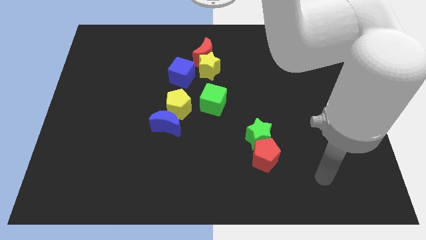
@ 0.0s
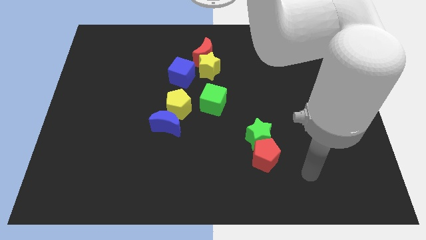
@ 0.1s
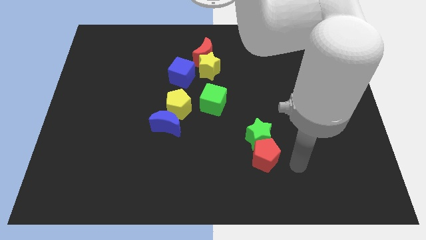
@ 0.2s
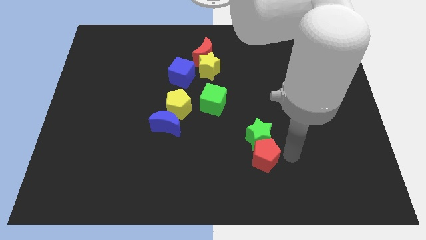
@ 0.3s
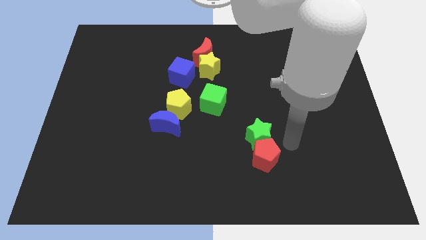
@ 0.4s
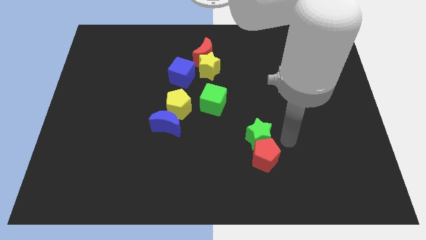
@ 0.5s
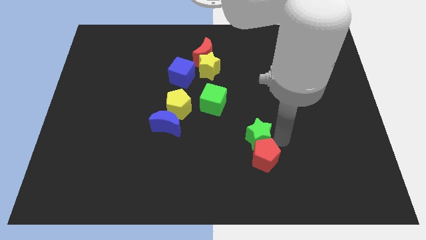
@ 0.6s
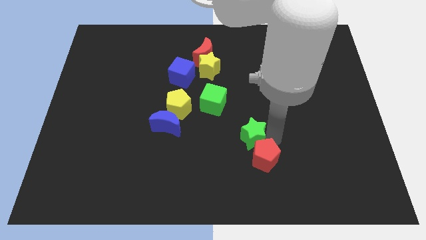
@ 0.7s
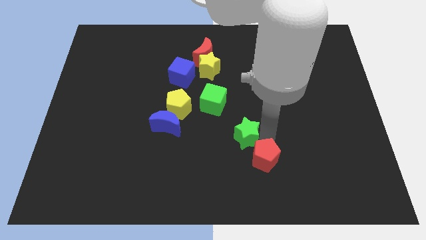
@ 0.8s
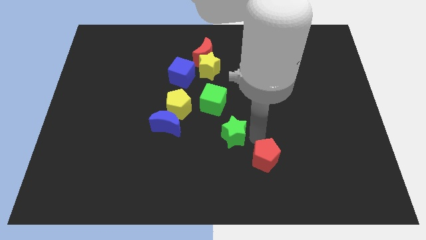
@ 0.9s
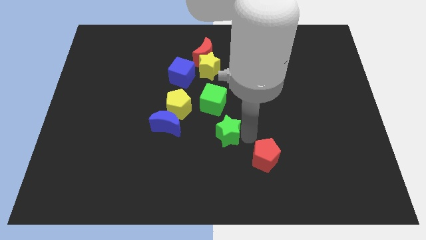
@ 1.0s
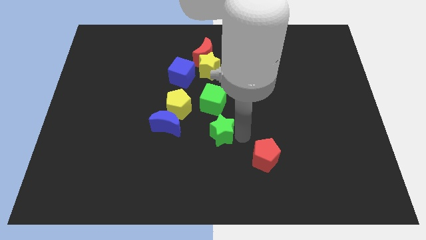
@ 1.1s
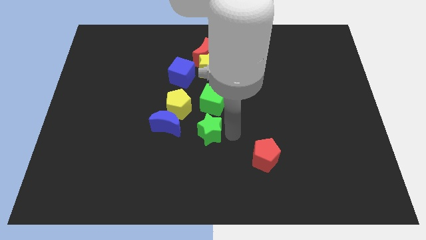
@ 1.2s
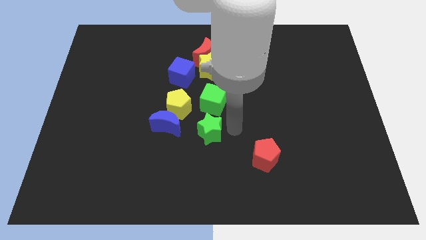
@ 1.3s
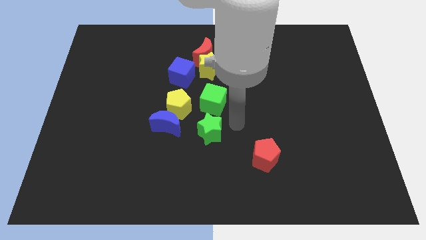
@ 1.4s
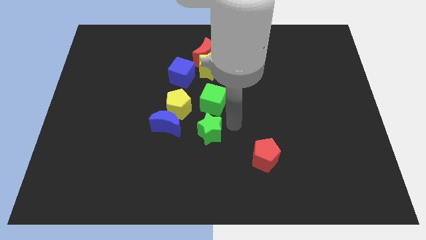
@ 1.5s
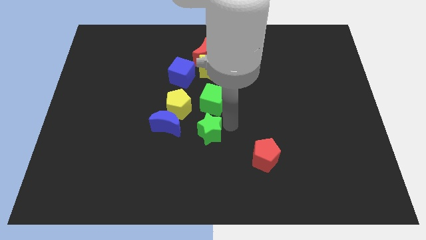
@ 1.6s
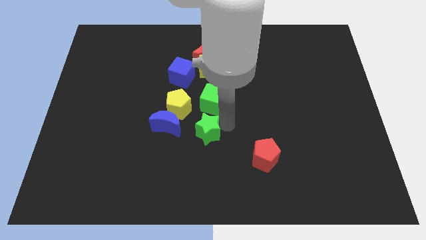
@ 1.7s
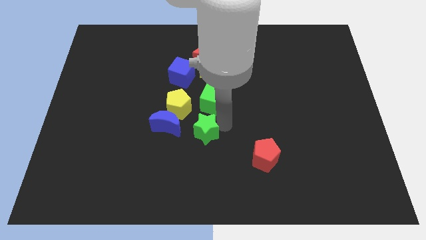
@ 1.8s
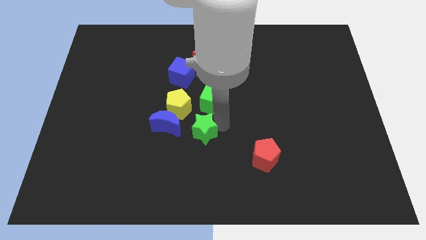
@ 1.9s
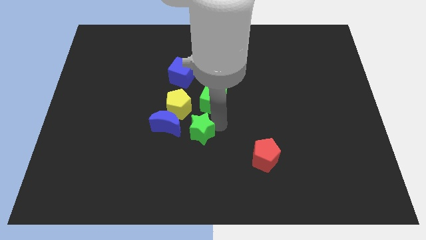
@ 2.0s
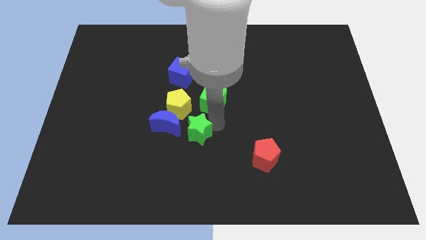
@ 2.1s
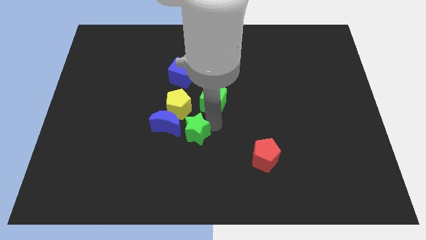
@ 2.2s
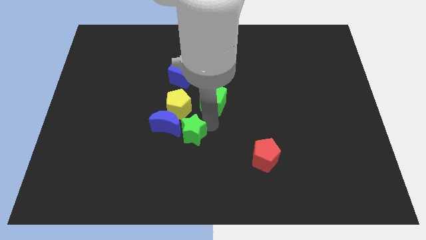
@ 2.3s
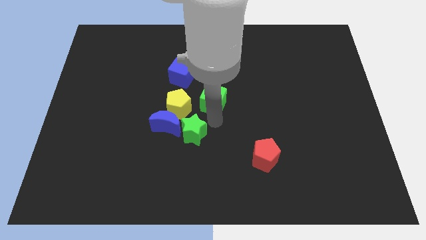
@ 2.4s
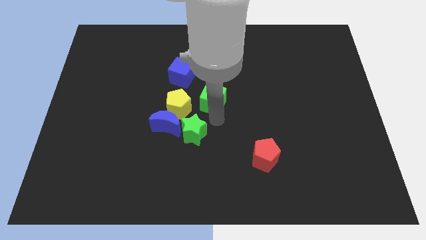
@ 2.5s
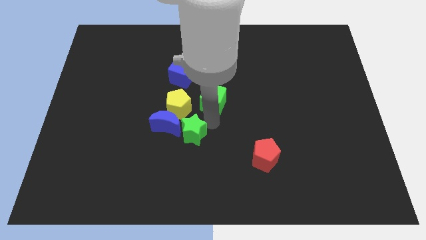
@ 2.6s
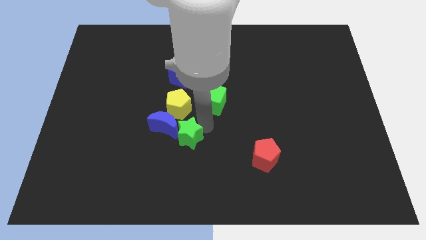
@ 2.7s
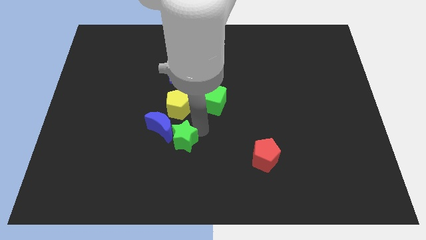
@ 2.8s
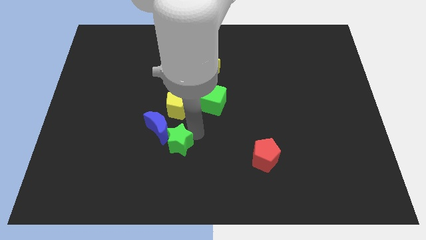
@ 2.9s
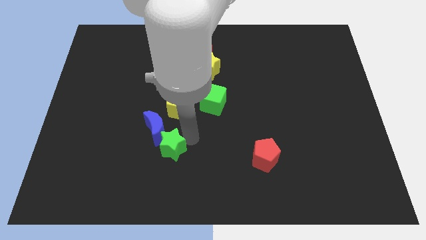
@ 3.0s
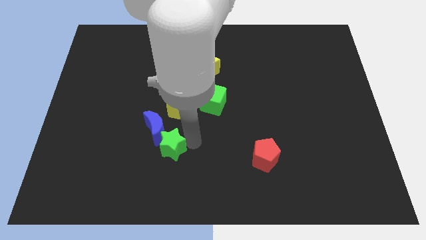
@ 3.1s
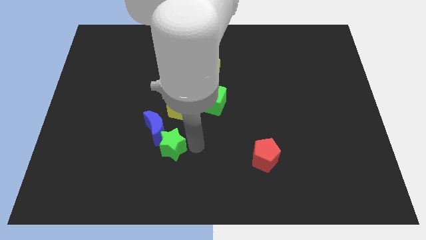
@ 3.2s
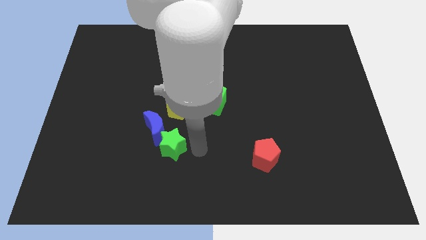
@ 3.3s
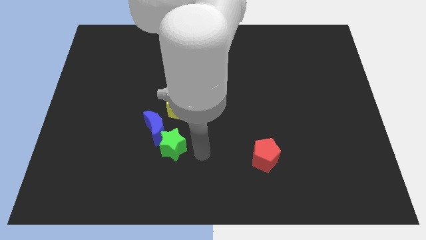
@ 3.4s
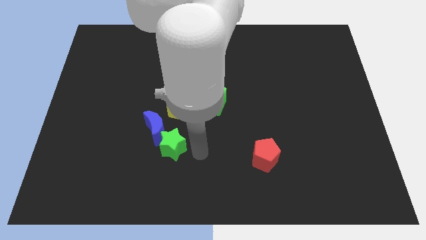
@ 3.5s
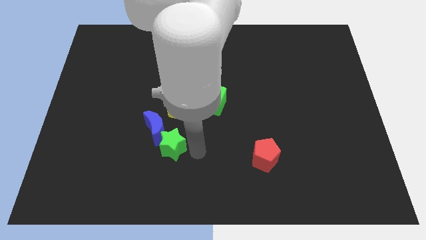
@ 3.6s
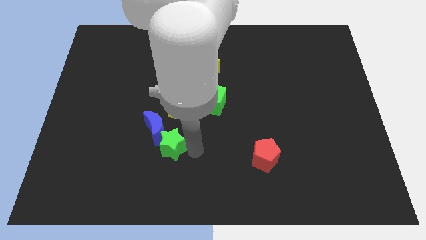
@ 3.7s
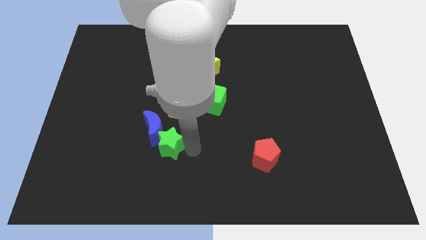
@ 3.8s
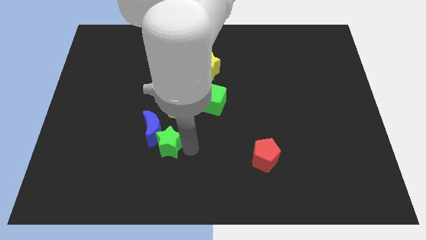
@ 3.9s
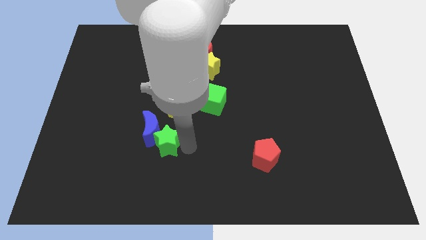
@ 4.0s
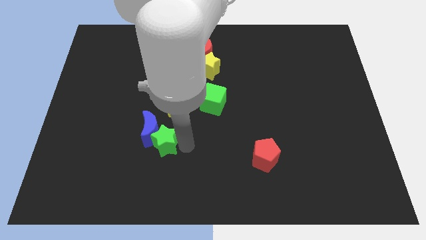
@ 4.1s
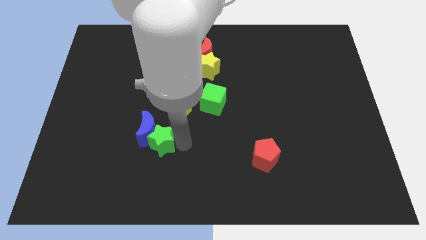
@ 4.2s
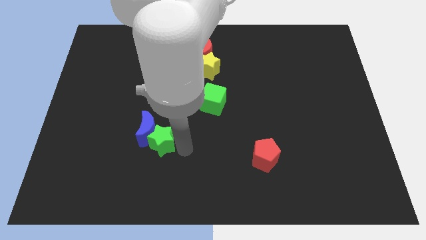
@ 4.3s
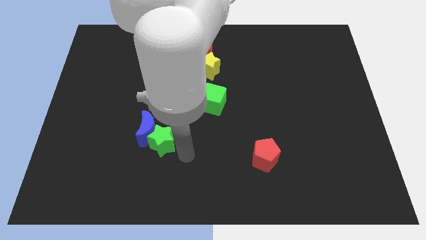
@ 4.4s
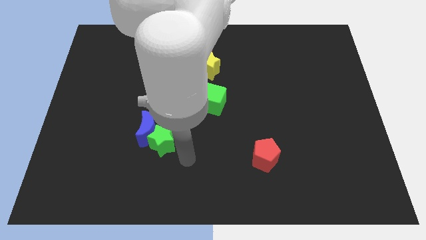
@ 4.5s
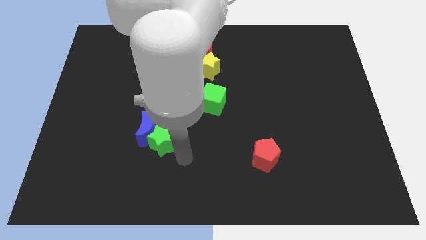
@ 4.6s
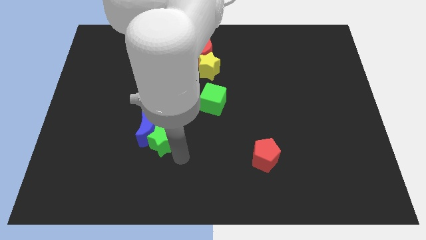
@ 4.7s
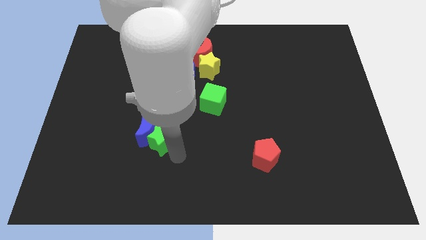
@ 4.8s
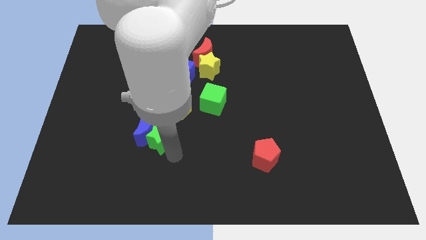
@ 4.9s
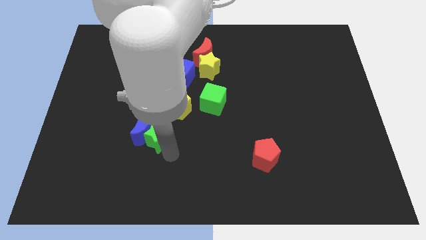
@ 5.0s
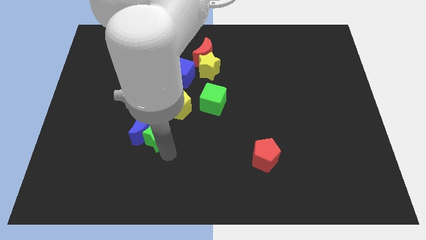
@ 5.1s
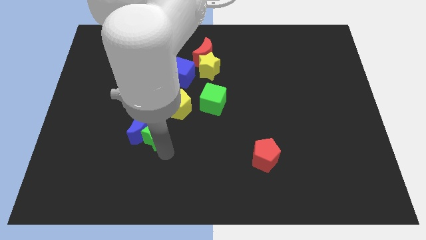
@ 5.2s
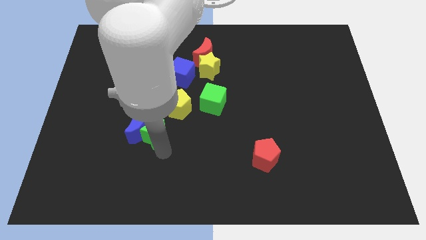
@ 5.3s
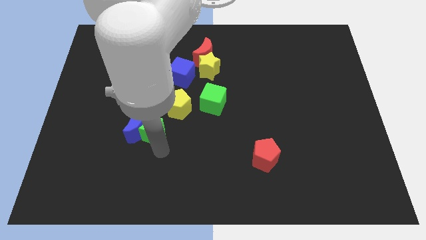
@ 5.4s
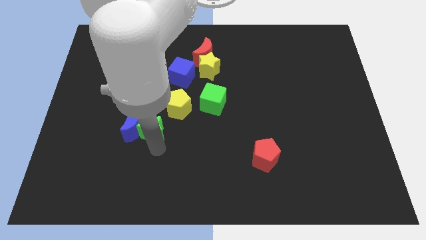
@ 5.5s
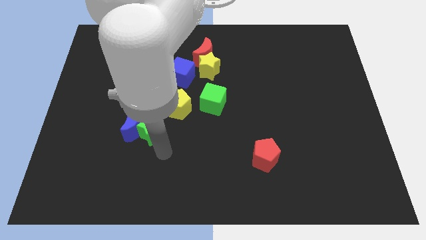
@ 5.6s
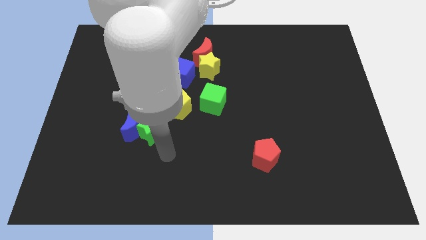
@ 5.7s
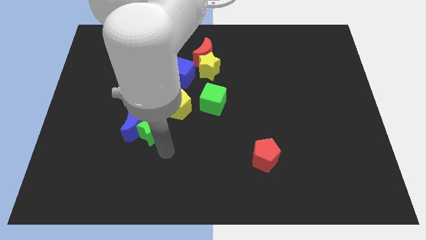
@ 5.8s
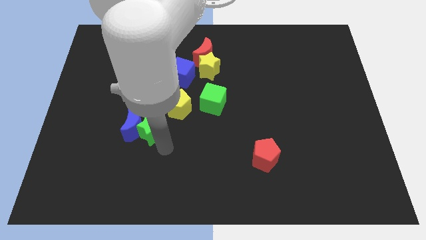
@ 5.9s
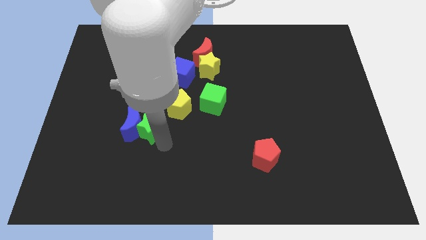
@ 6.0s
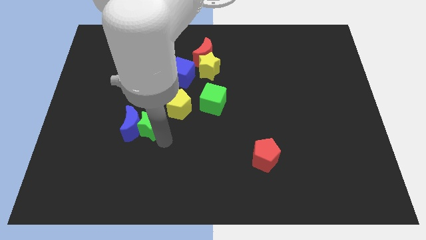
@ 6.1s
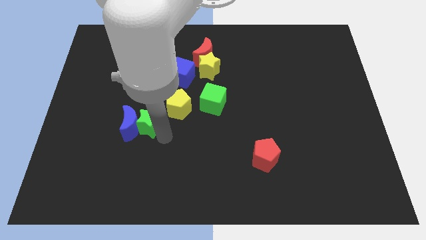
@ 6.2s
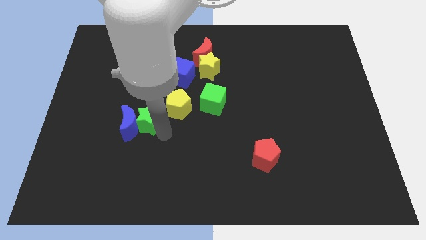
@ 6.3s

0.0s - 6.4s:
put the green star left of the yellow pentagon

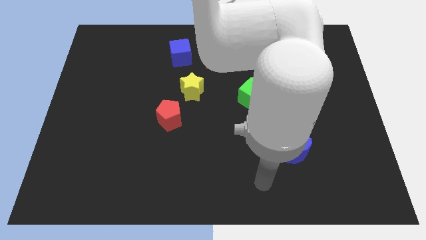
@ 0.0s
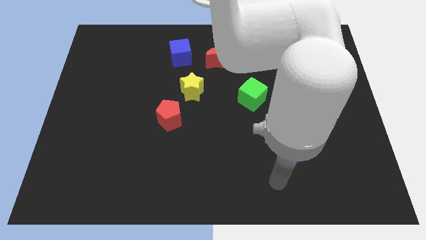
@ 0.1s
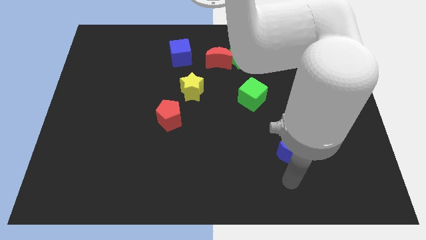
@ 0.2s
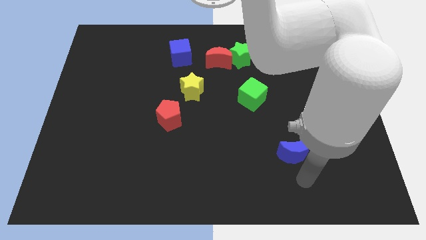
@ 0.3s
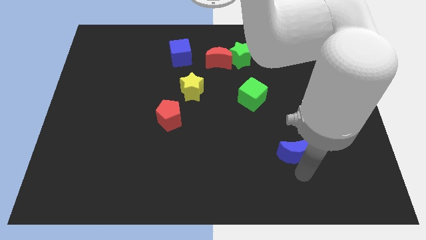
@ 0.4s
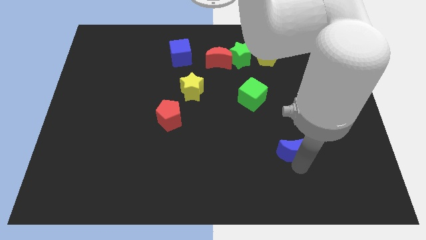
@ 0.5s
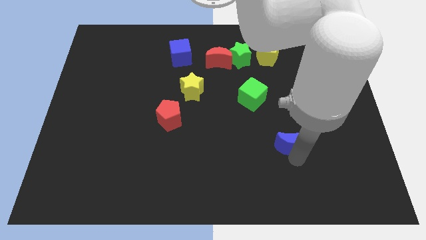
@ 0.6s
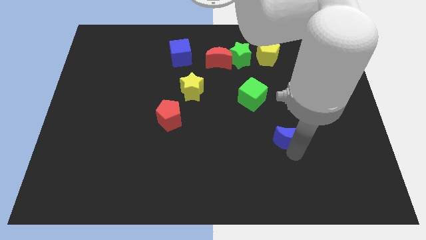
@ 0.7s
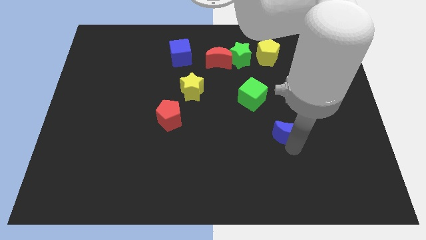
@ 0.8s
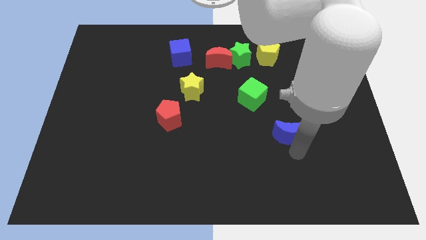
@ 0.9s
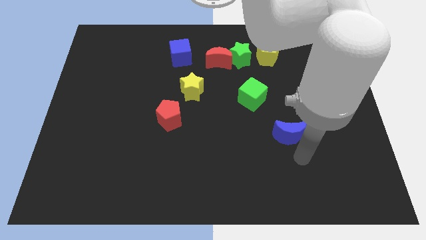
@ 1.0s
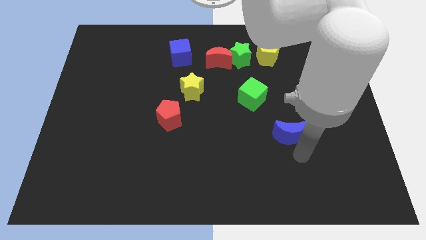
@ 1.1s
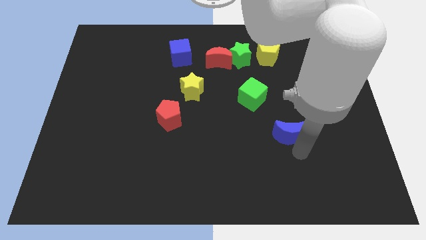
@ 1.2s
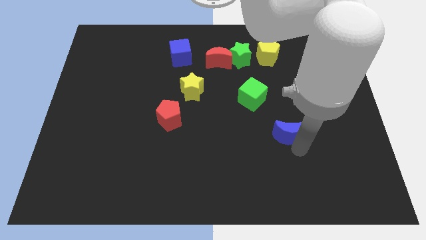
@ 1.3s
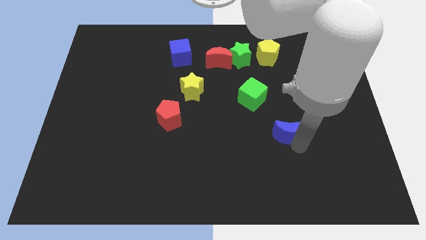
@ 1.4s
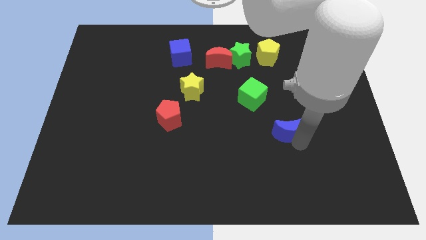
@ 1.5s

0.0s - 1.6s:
push the blue moon diagonally down and to the right of the green cube
